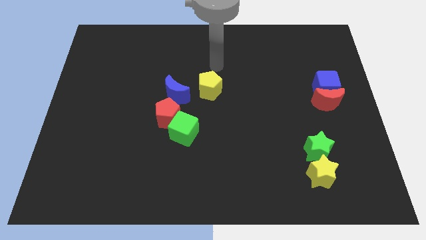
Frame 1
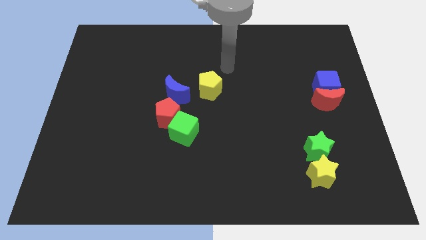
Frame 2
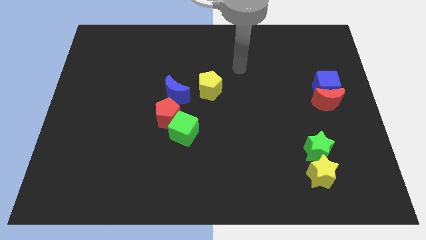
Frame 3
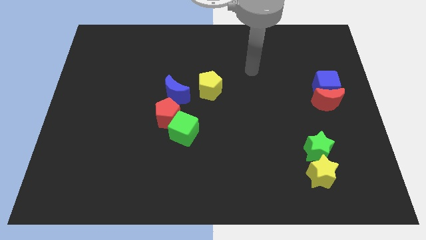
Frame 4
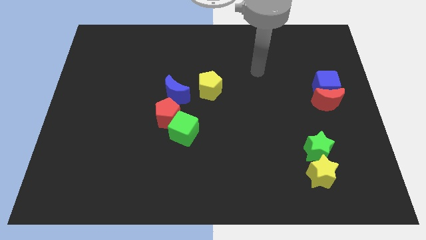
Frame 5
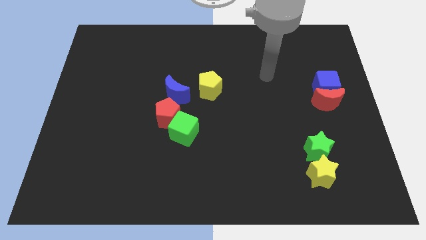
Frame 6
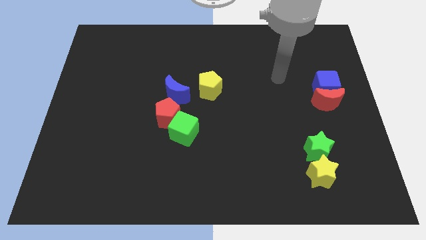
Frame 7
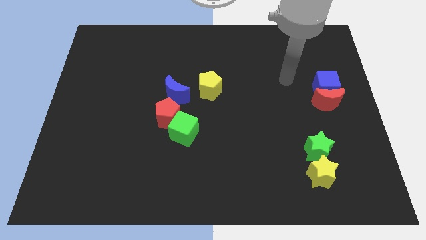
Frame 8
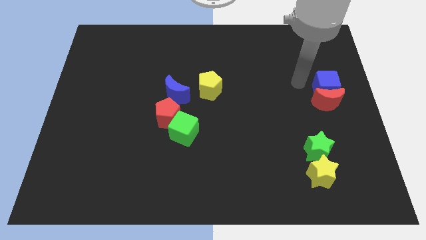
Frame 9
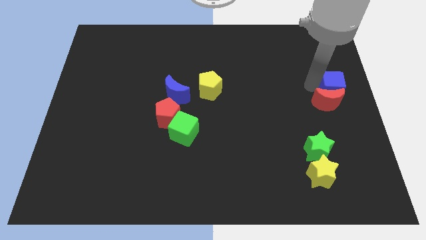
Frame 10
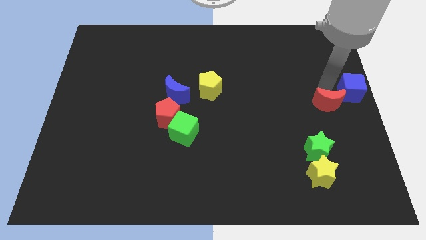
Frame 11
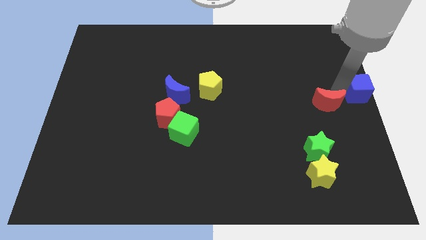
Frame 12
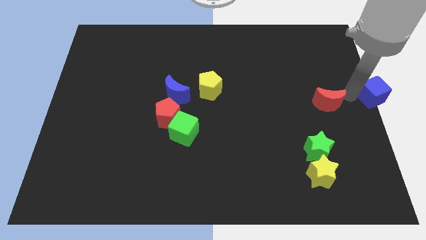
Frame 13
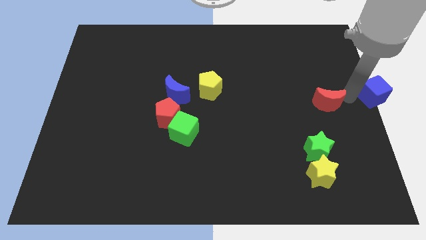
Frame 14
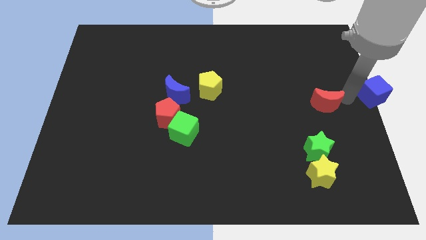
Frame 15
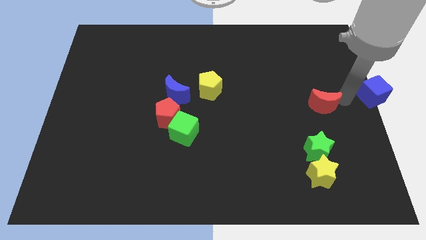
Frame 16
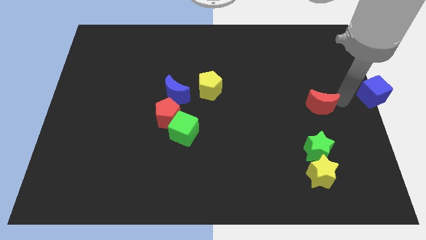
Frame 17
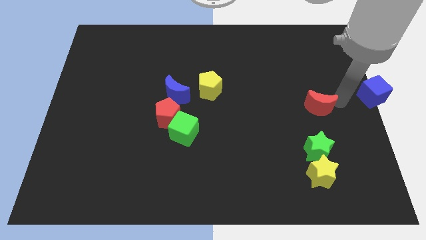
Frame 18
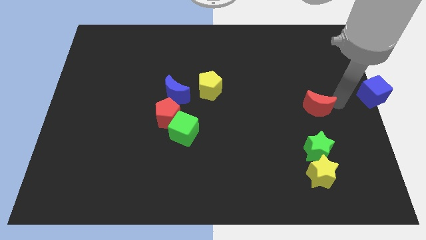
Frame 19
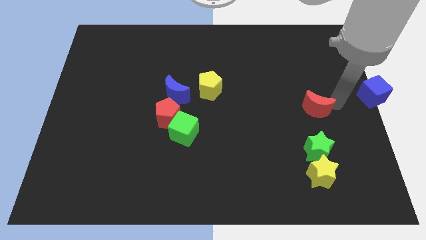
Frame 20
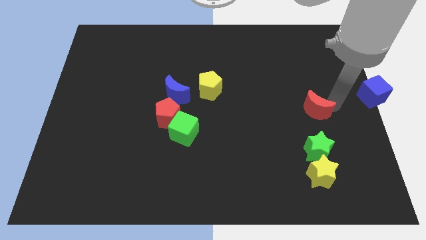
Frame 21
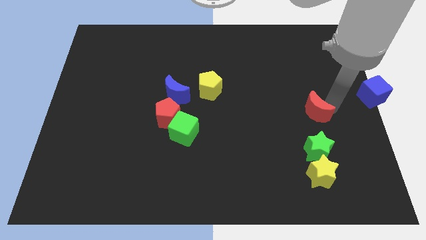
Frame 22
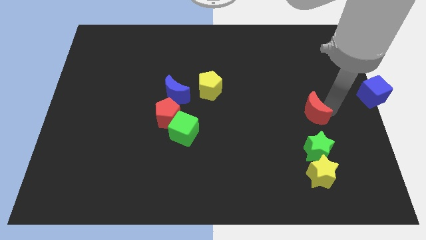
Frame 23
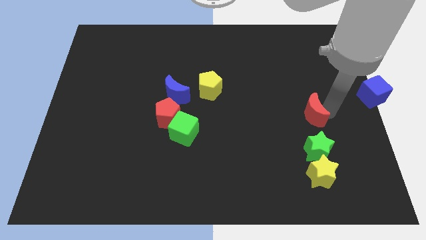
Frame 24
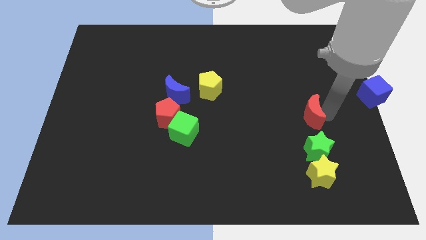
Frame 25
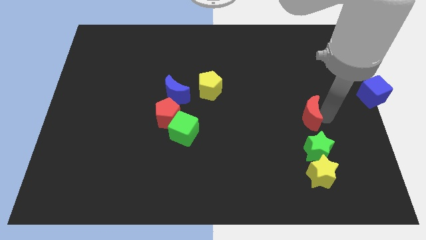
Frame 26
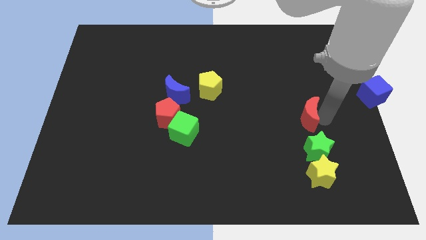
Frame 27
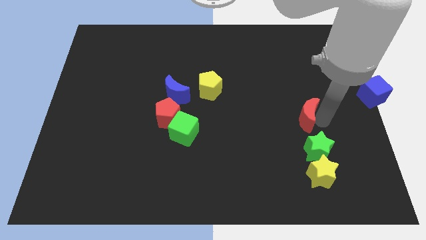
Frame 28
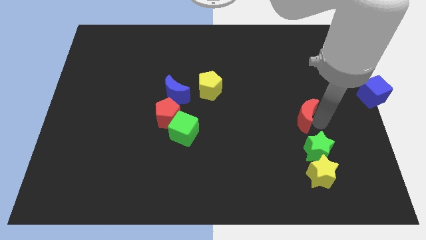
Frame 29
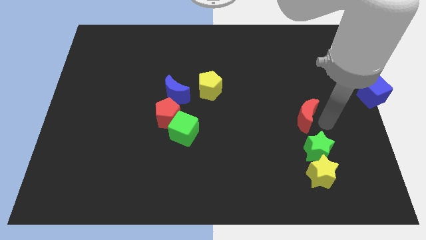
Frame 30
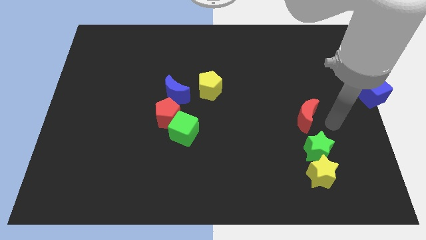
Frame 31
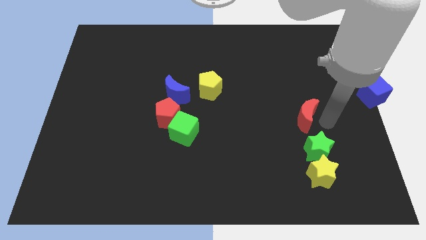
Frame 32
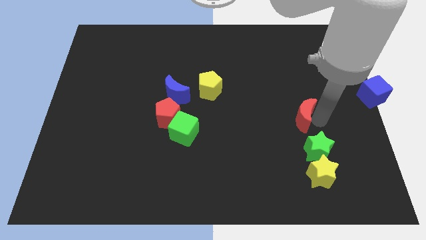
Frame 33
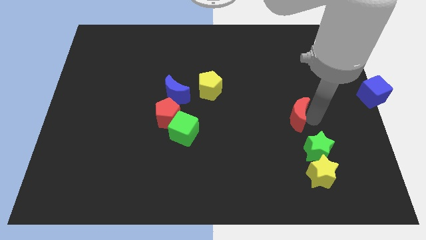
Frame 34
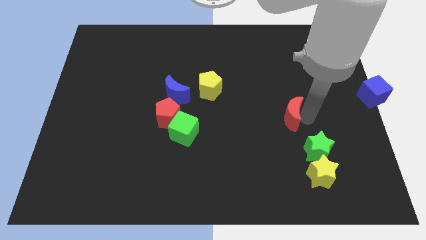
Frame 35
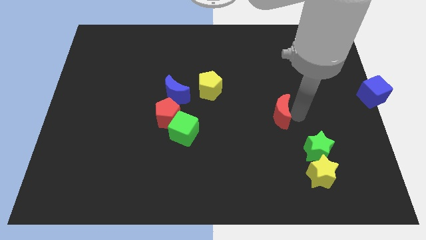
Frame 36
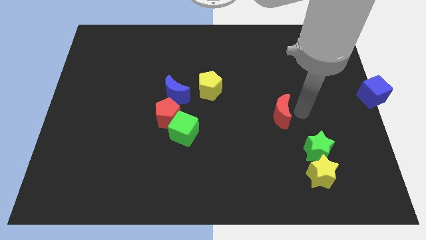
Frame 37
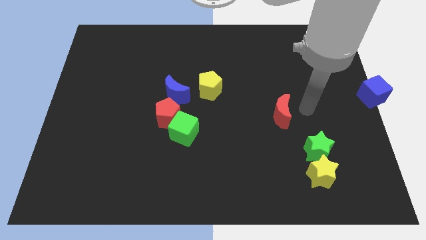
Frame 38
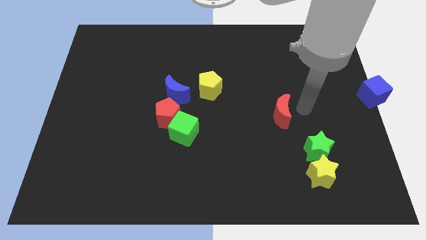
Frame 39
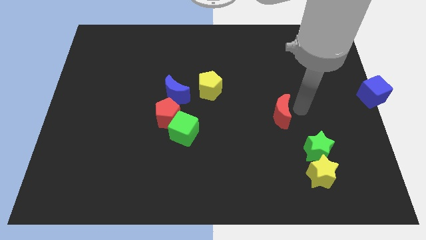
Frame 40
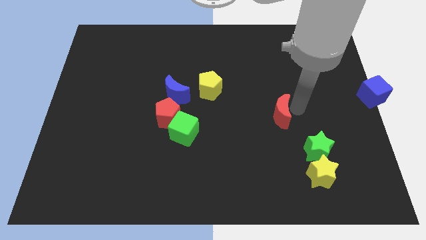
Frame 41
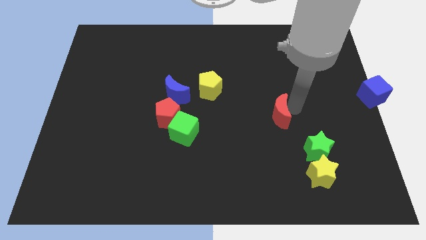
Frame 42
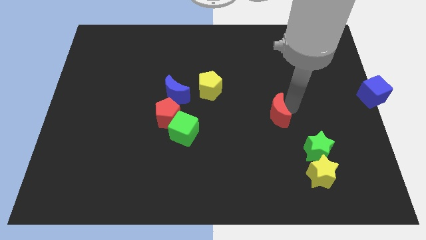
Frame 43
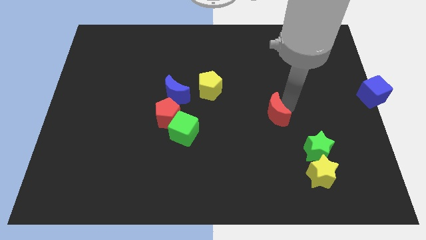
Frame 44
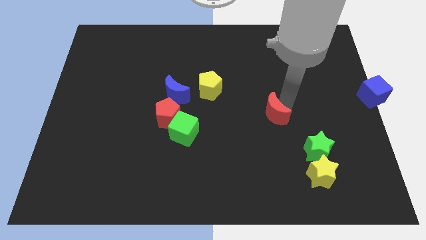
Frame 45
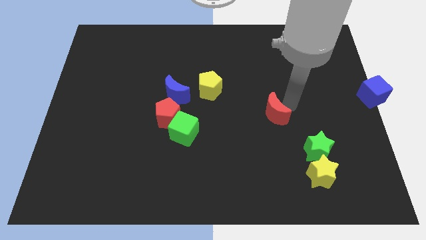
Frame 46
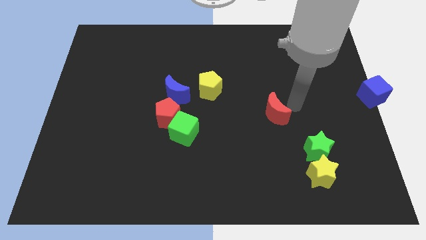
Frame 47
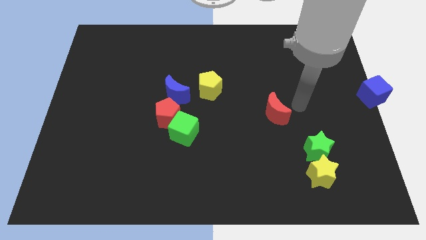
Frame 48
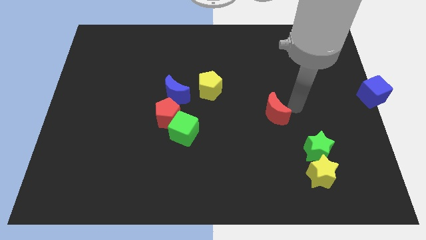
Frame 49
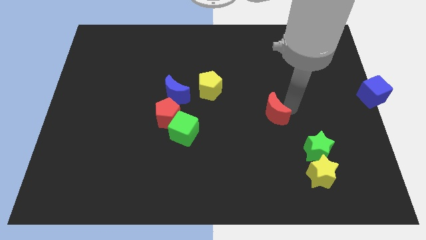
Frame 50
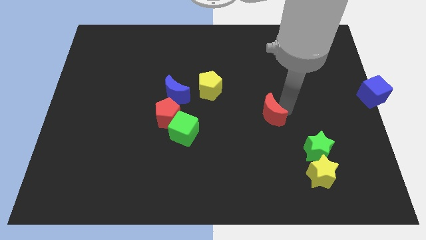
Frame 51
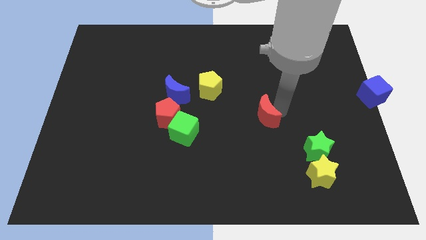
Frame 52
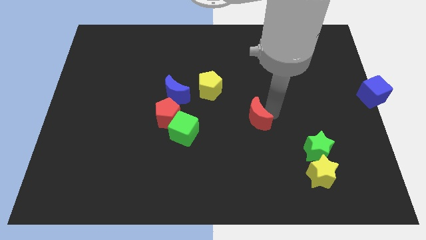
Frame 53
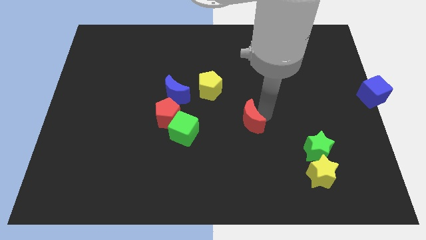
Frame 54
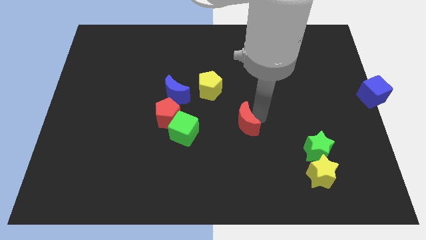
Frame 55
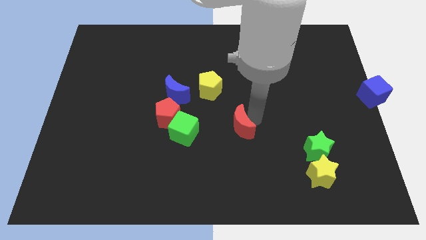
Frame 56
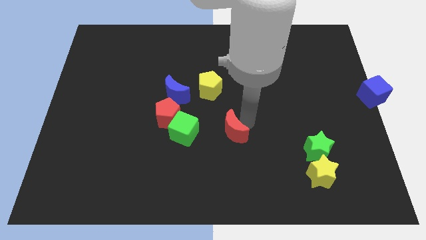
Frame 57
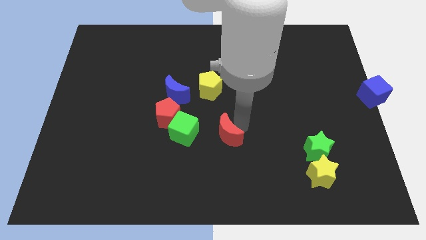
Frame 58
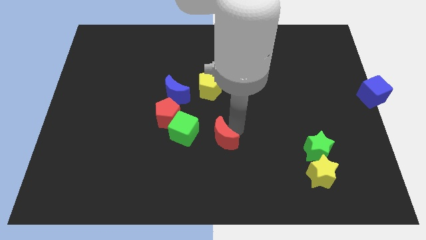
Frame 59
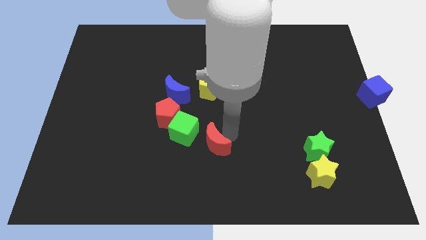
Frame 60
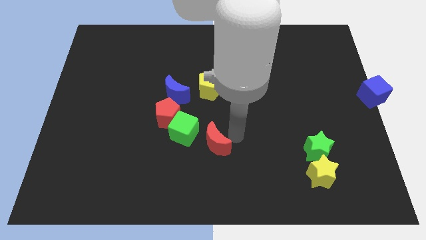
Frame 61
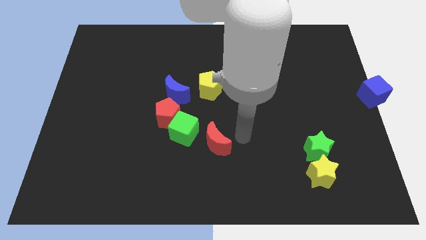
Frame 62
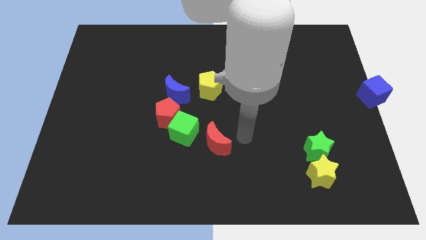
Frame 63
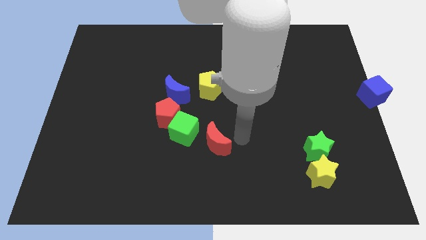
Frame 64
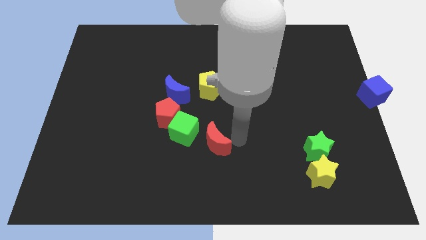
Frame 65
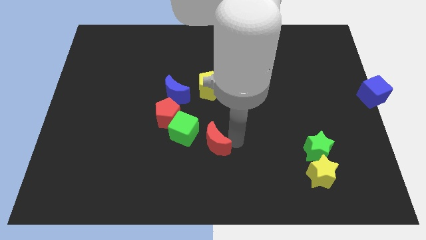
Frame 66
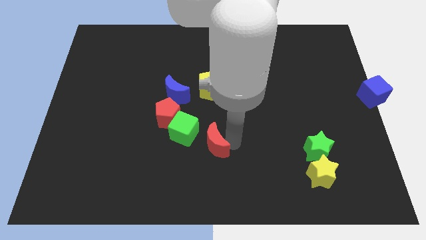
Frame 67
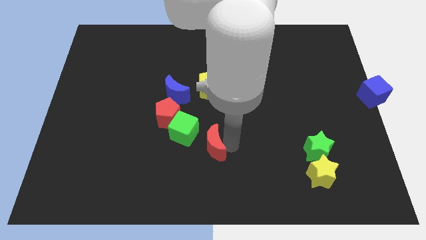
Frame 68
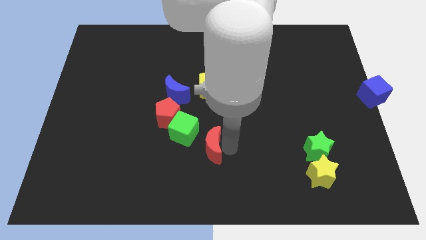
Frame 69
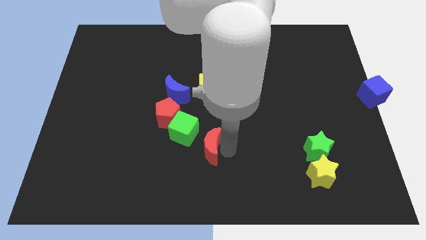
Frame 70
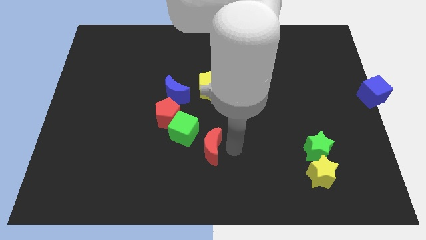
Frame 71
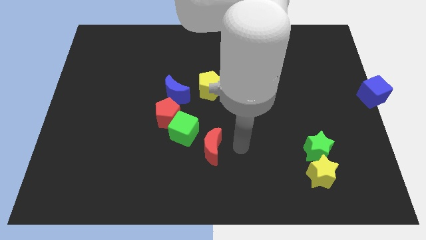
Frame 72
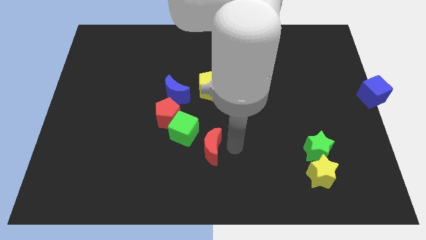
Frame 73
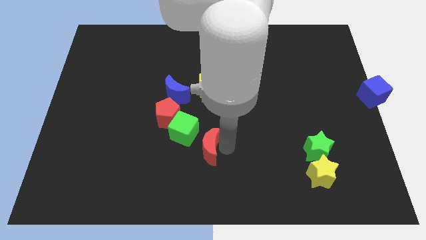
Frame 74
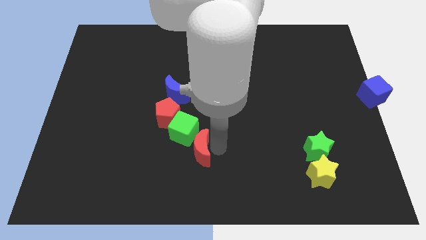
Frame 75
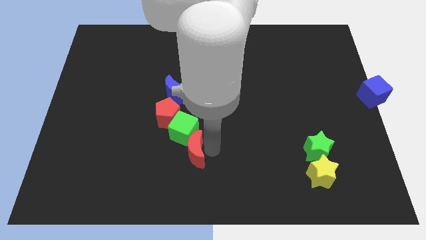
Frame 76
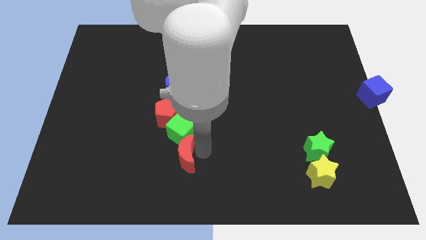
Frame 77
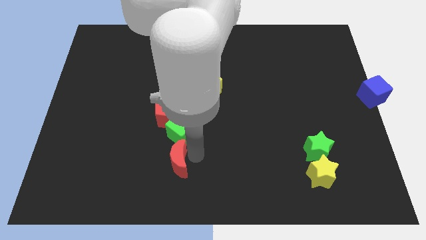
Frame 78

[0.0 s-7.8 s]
move the red moon diagonally down and to the left of the green cube
